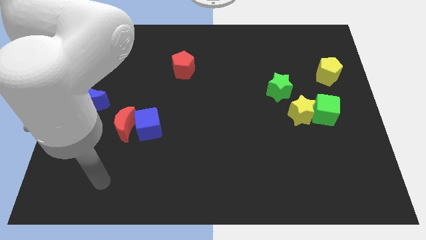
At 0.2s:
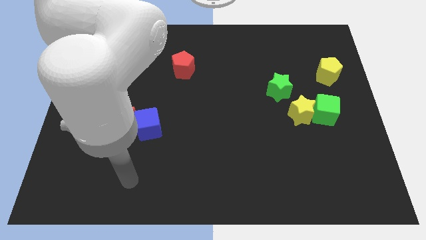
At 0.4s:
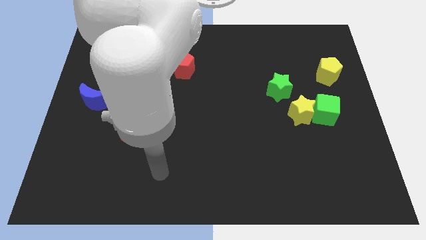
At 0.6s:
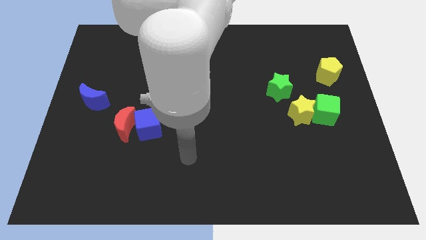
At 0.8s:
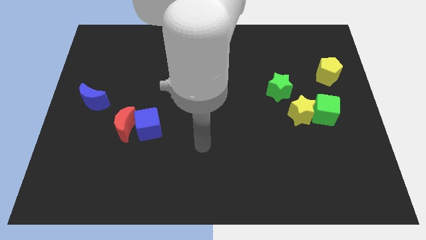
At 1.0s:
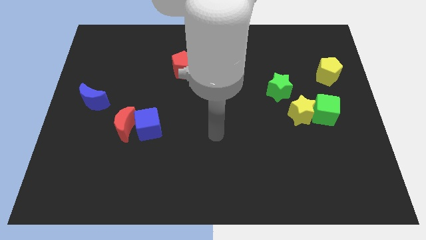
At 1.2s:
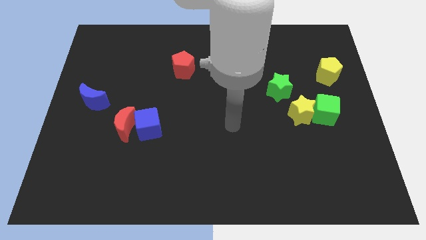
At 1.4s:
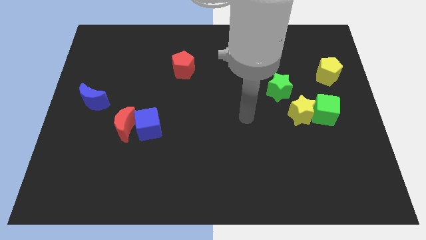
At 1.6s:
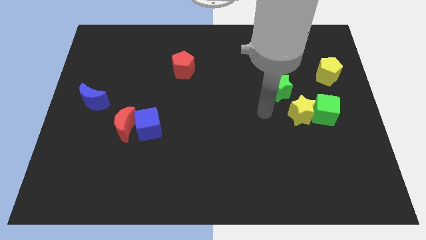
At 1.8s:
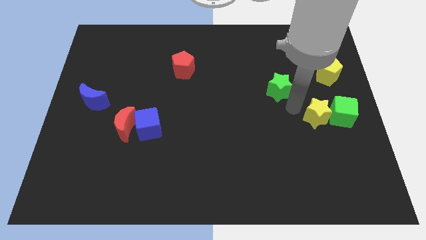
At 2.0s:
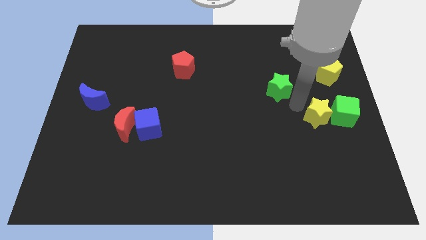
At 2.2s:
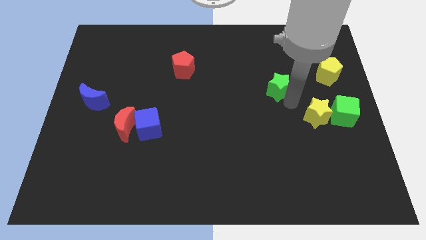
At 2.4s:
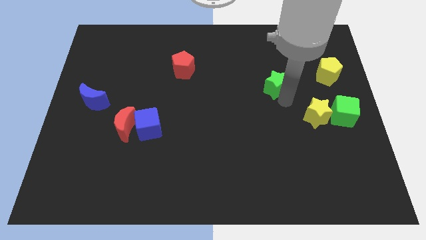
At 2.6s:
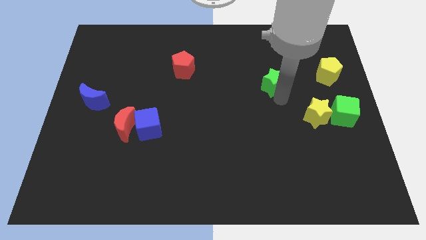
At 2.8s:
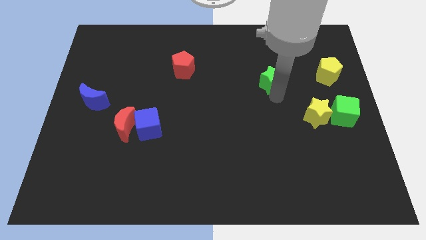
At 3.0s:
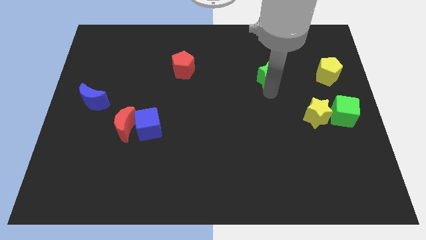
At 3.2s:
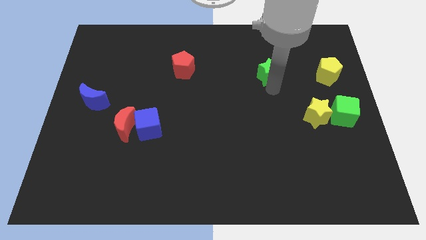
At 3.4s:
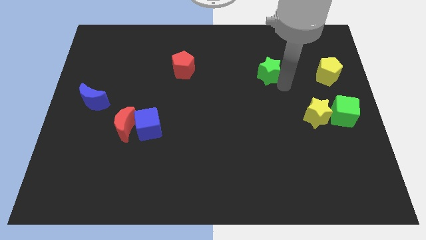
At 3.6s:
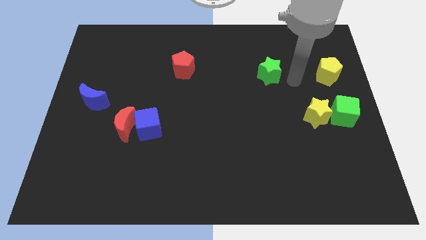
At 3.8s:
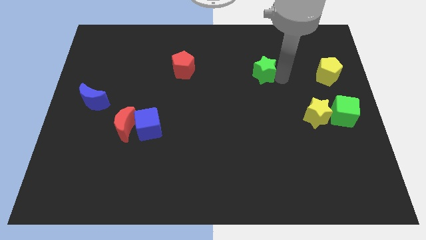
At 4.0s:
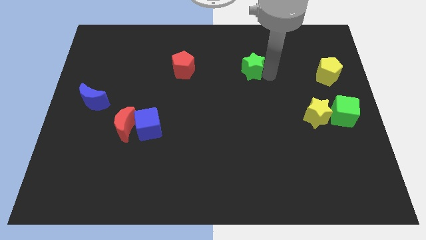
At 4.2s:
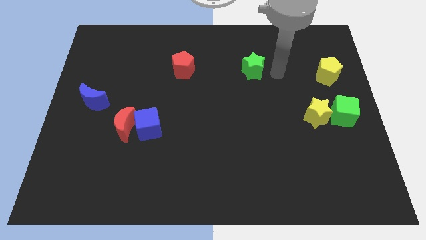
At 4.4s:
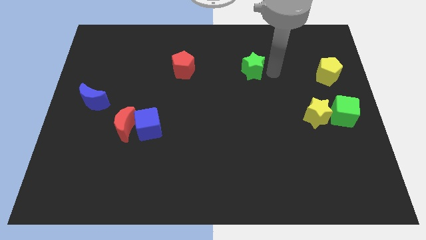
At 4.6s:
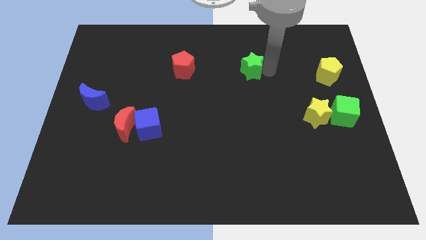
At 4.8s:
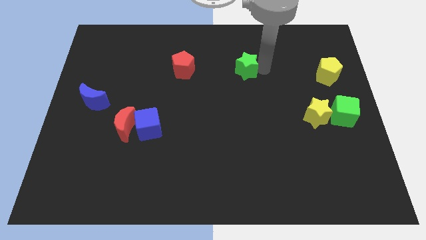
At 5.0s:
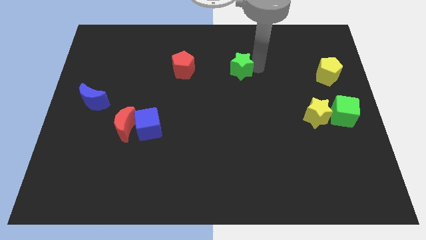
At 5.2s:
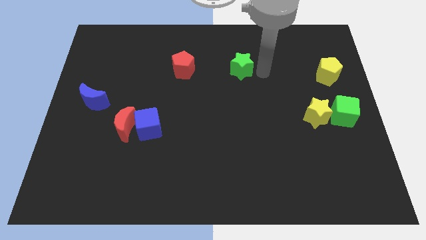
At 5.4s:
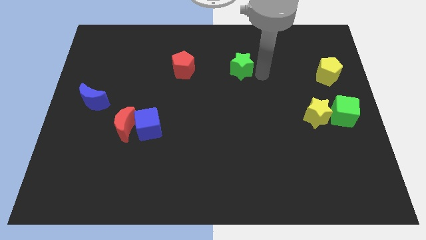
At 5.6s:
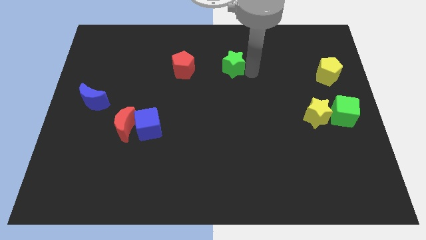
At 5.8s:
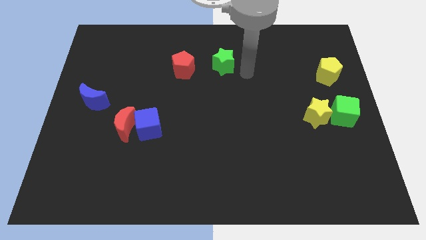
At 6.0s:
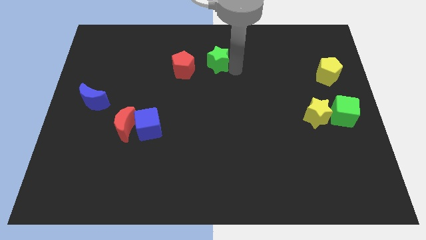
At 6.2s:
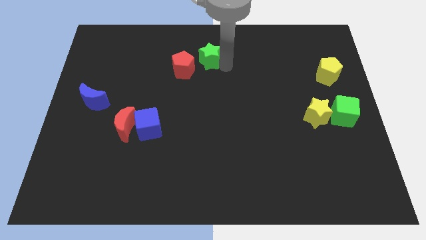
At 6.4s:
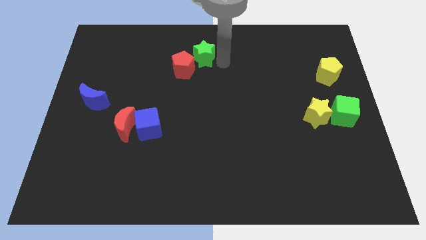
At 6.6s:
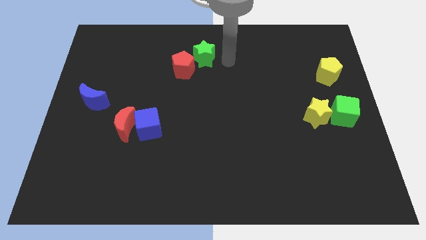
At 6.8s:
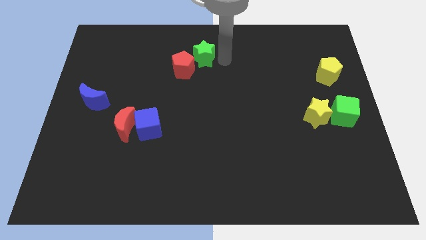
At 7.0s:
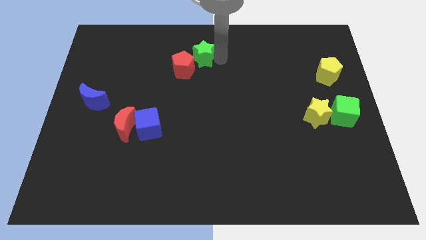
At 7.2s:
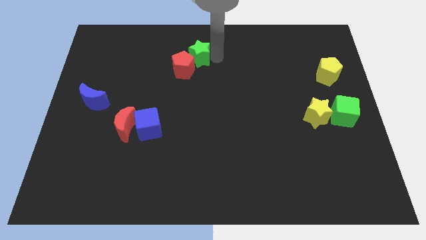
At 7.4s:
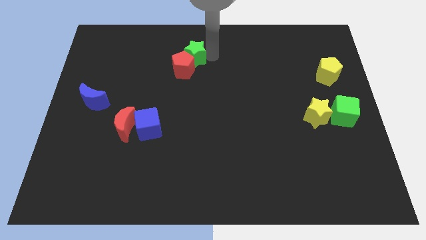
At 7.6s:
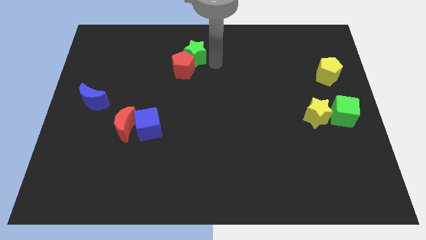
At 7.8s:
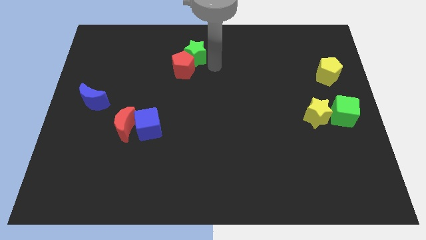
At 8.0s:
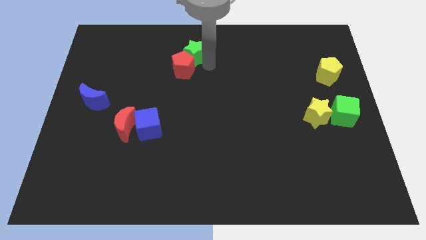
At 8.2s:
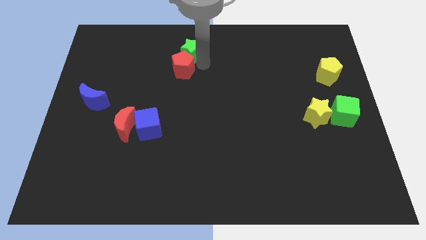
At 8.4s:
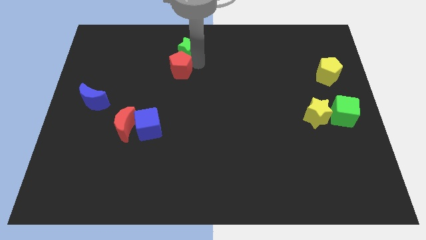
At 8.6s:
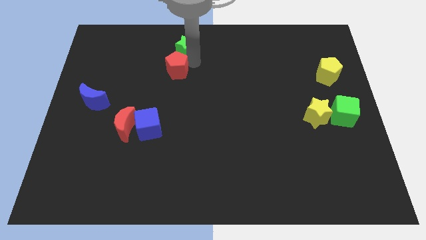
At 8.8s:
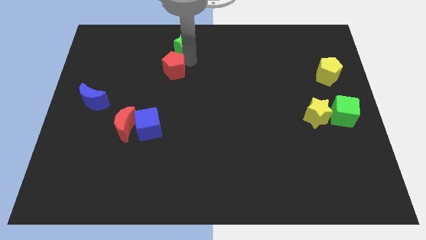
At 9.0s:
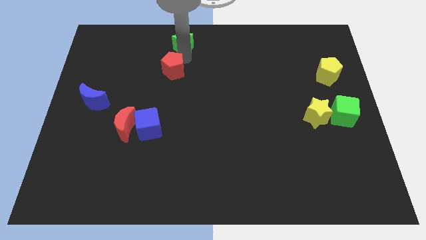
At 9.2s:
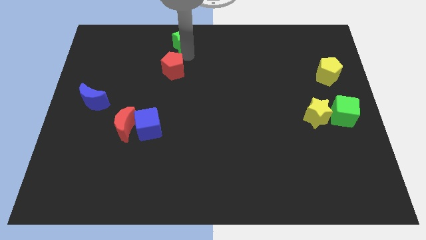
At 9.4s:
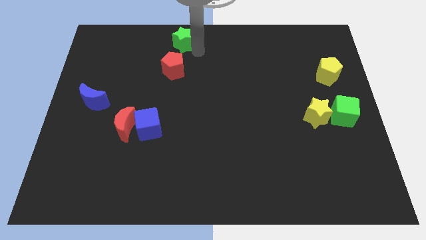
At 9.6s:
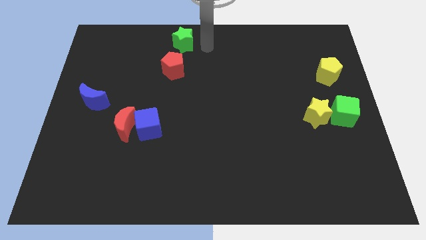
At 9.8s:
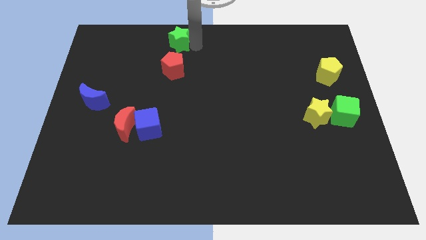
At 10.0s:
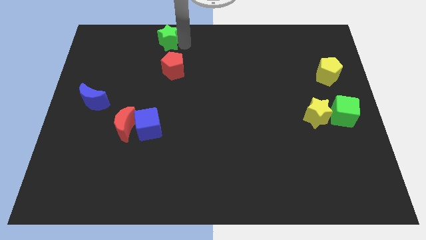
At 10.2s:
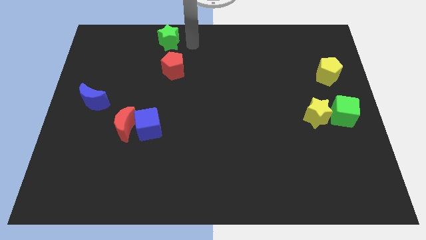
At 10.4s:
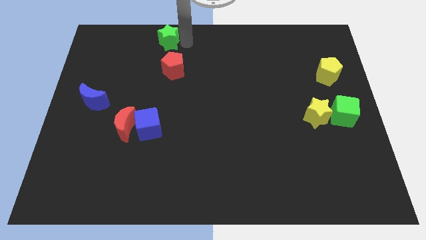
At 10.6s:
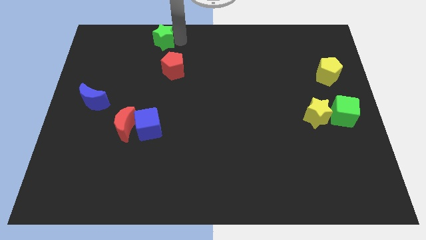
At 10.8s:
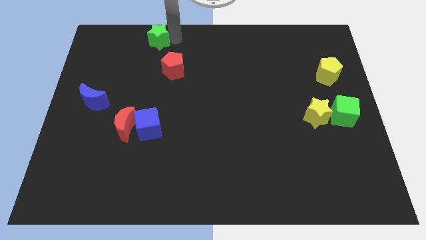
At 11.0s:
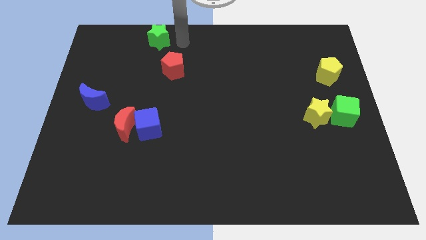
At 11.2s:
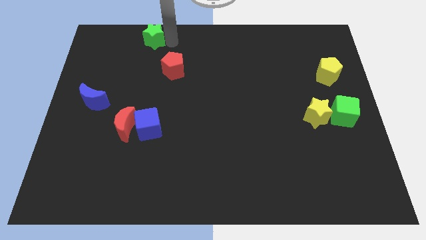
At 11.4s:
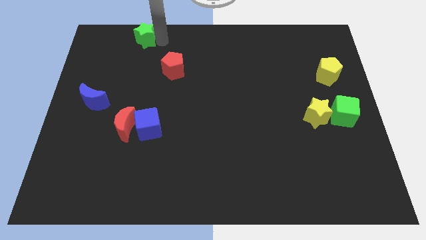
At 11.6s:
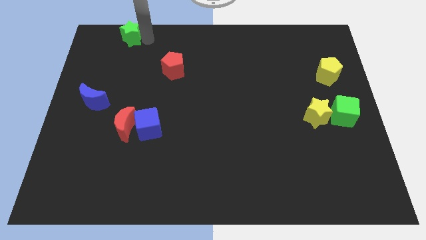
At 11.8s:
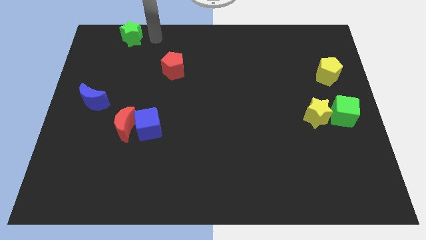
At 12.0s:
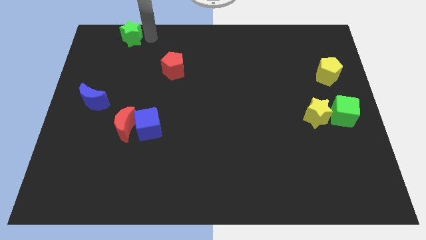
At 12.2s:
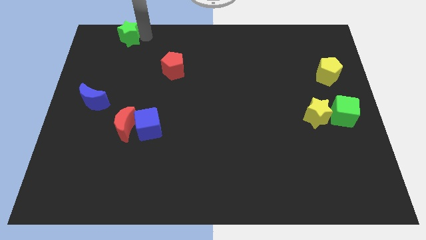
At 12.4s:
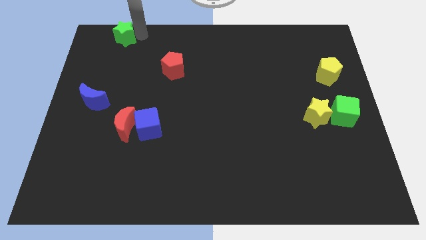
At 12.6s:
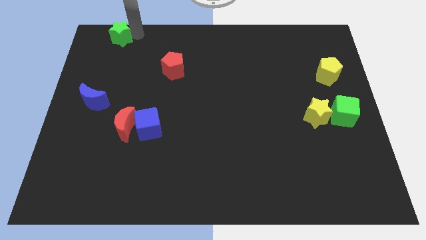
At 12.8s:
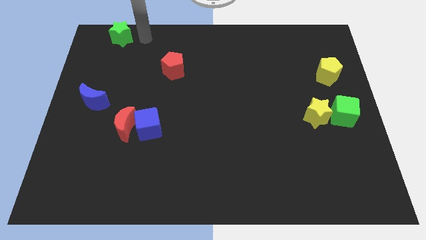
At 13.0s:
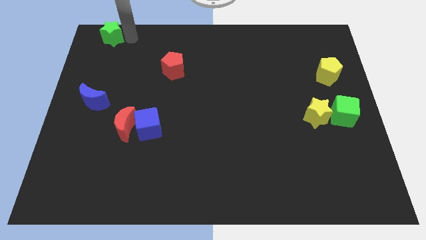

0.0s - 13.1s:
push the green star to the top left corner

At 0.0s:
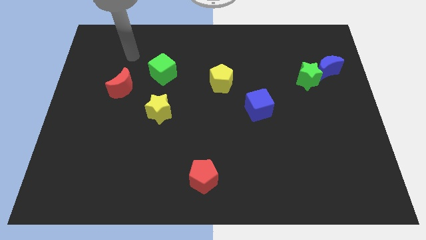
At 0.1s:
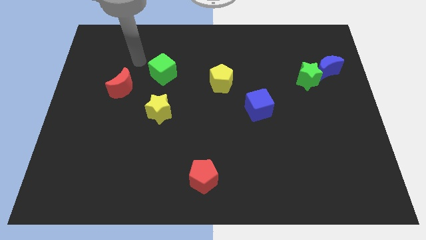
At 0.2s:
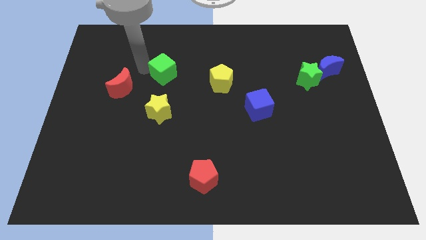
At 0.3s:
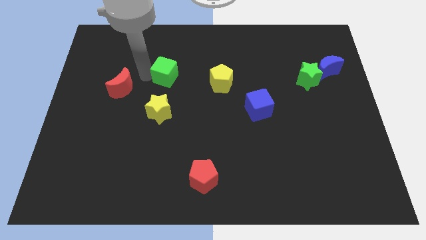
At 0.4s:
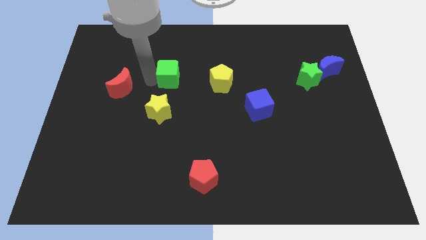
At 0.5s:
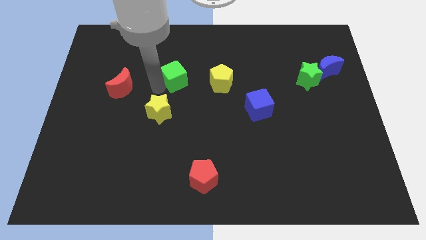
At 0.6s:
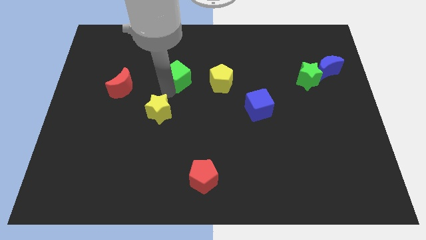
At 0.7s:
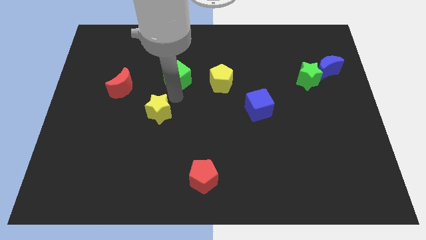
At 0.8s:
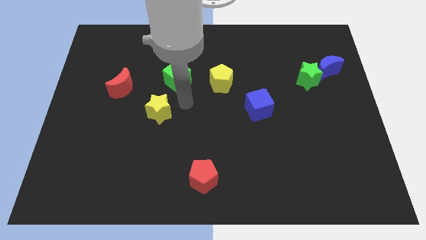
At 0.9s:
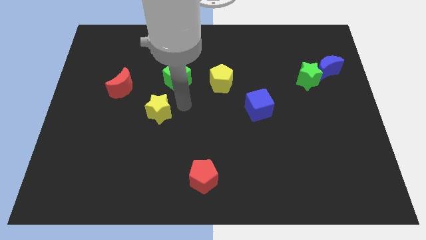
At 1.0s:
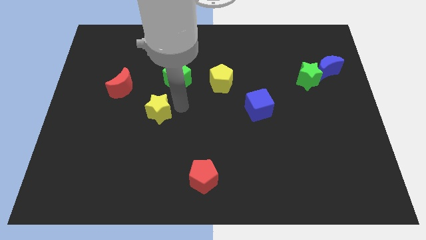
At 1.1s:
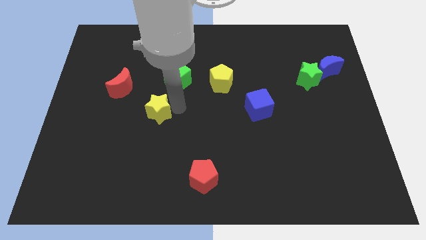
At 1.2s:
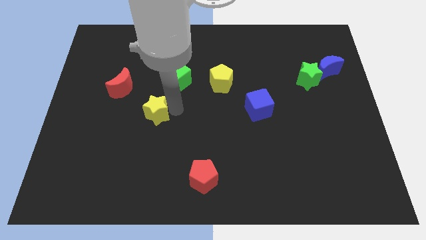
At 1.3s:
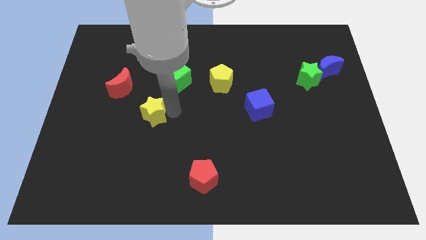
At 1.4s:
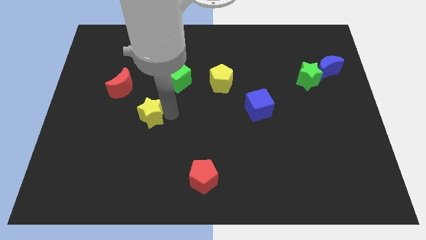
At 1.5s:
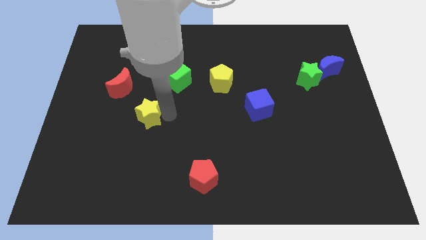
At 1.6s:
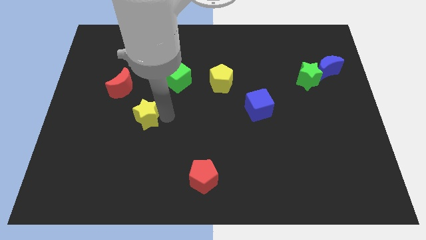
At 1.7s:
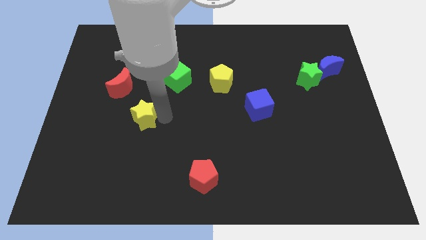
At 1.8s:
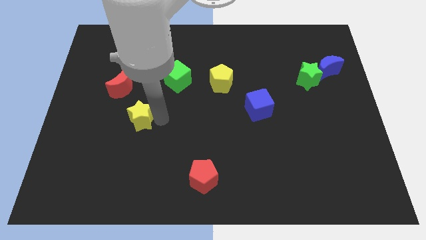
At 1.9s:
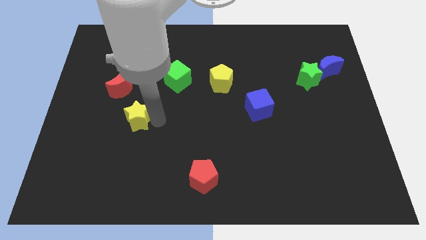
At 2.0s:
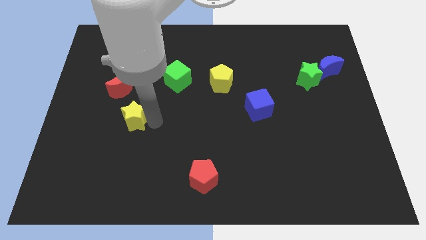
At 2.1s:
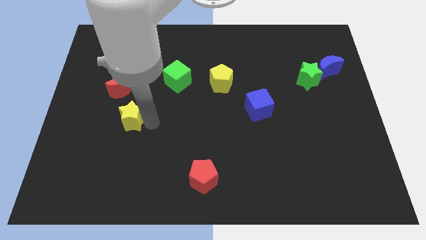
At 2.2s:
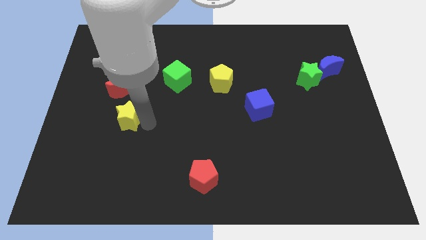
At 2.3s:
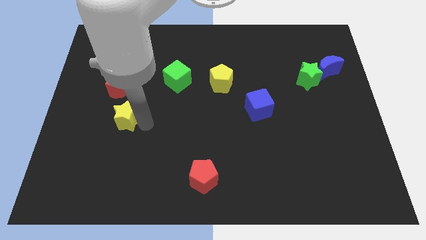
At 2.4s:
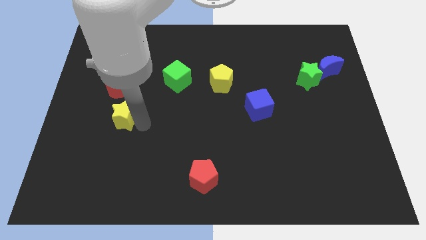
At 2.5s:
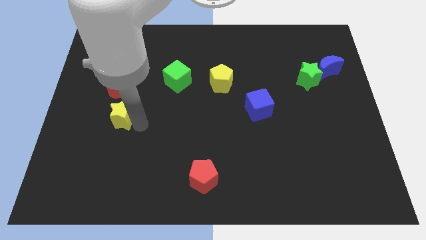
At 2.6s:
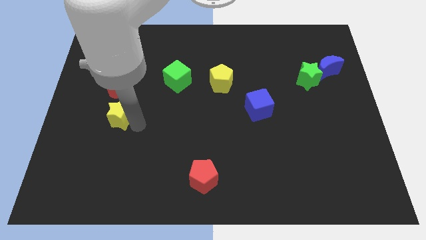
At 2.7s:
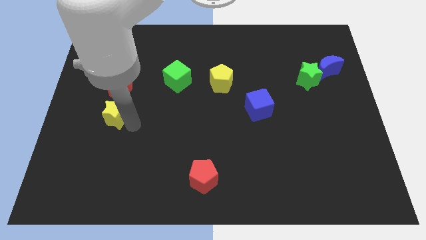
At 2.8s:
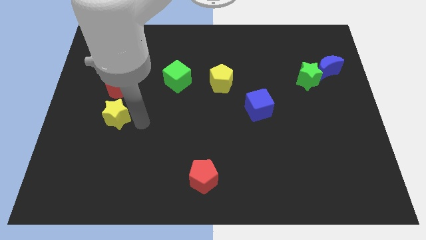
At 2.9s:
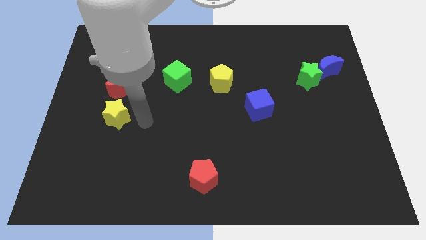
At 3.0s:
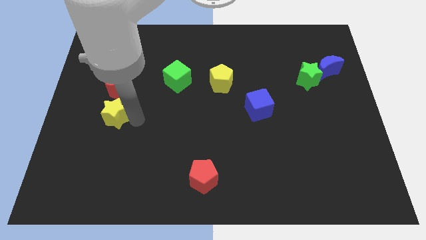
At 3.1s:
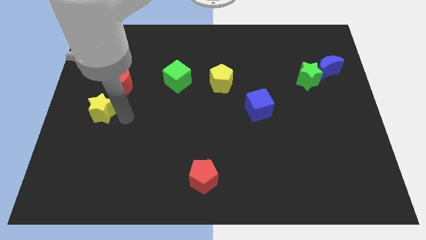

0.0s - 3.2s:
push the yellow star to the center left
